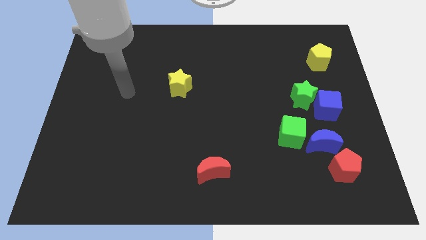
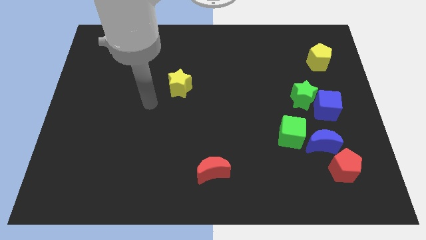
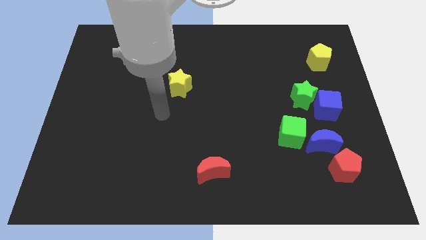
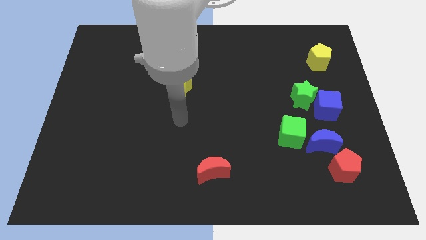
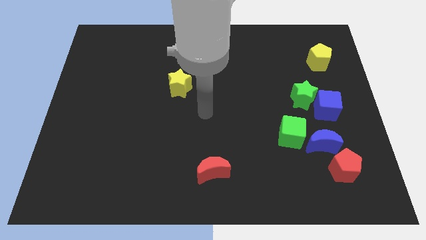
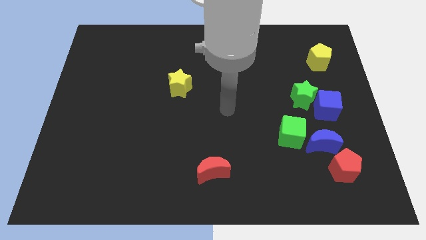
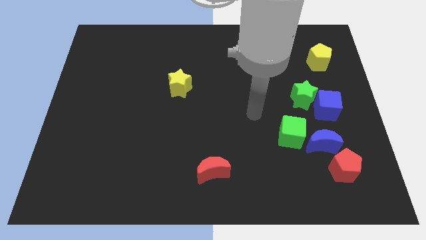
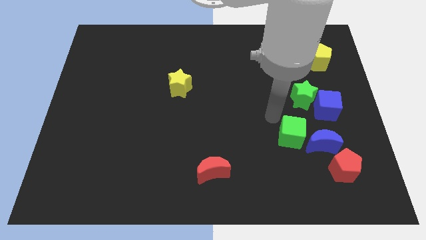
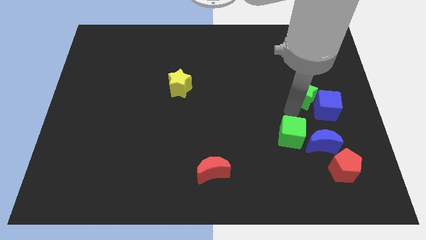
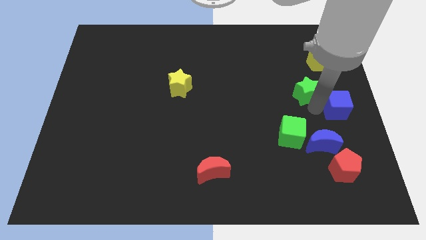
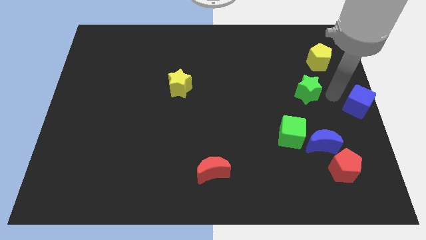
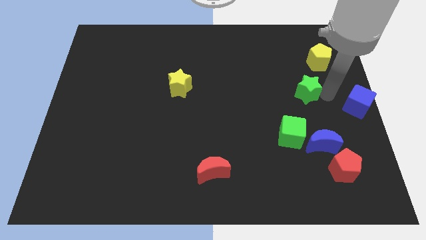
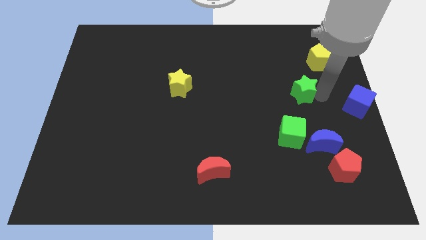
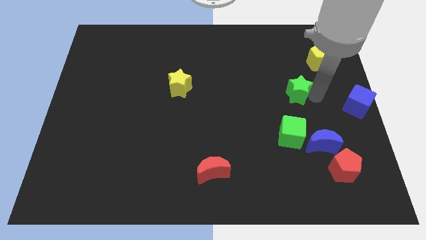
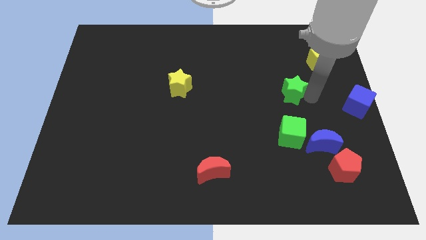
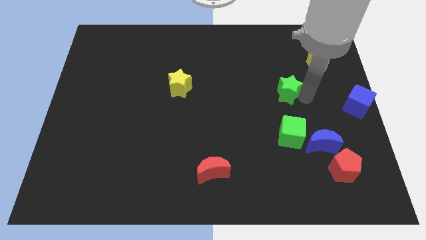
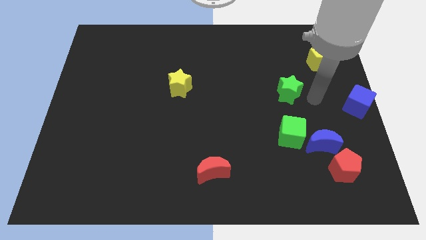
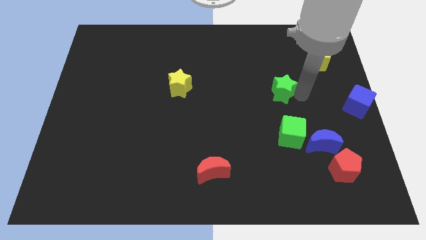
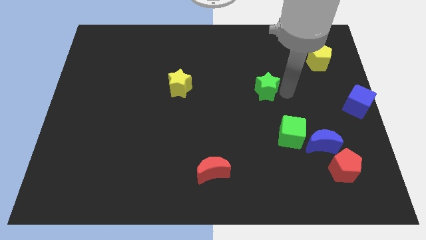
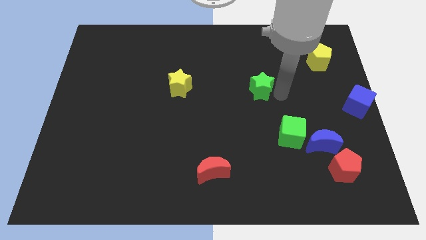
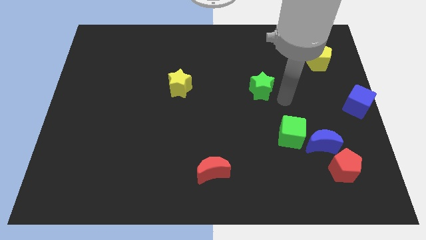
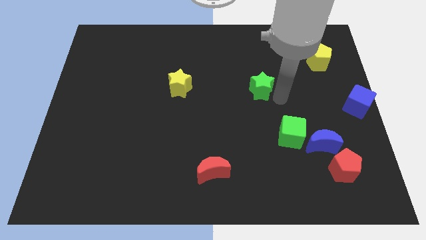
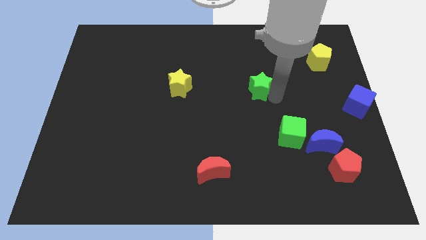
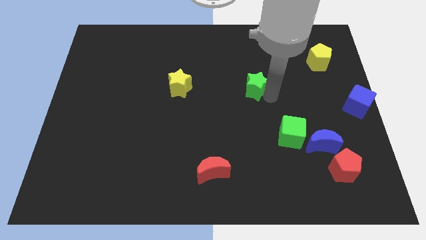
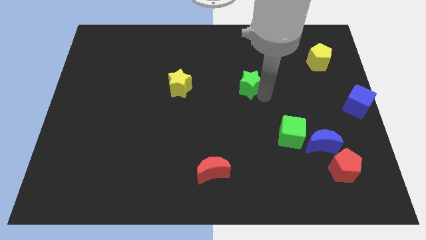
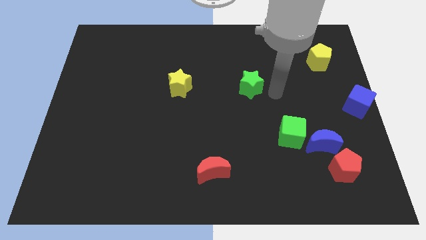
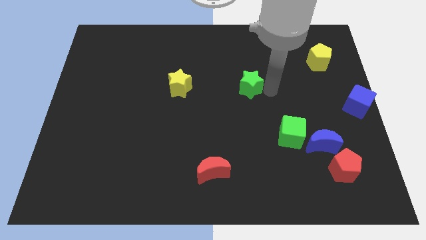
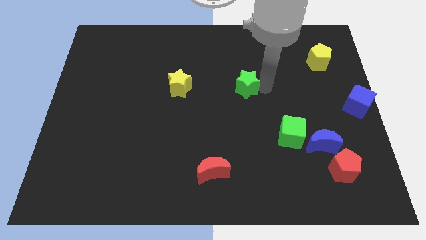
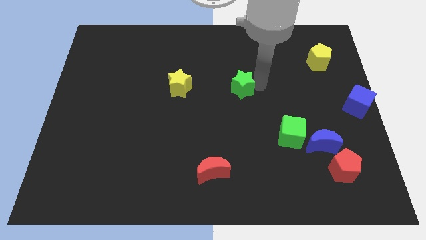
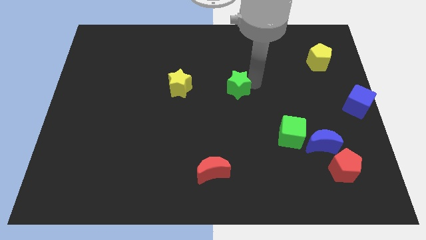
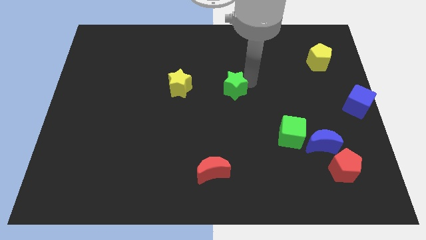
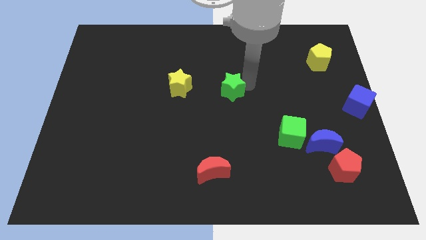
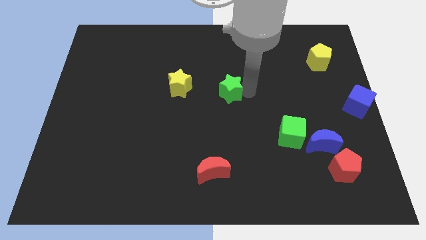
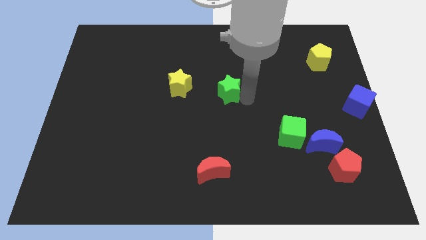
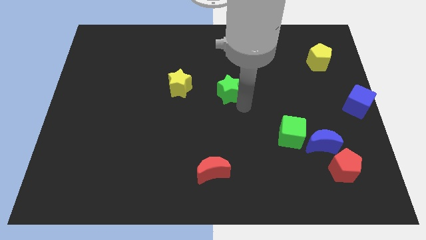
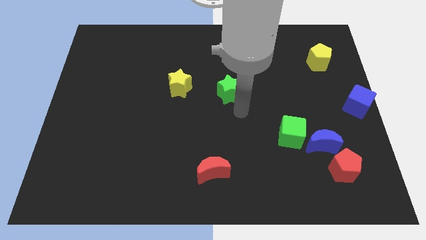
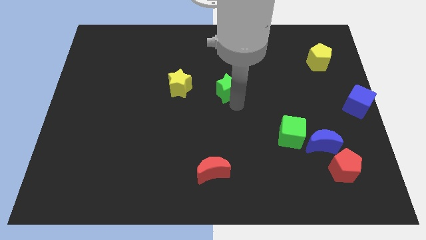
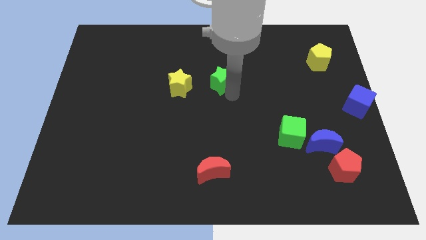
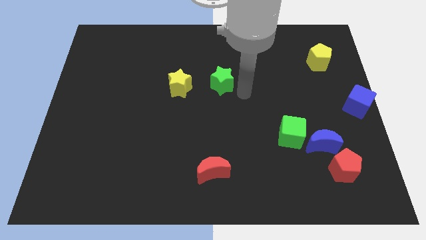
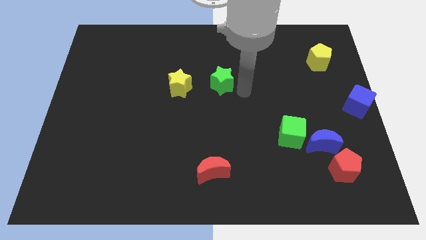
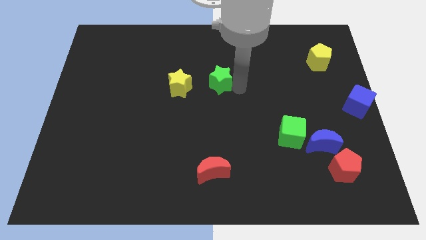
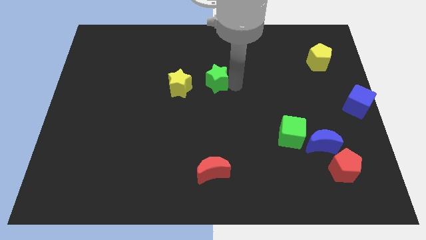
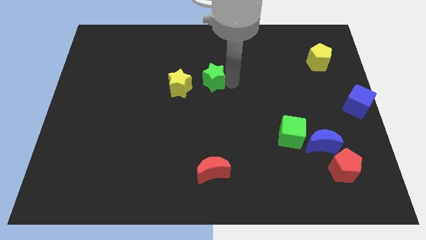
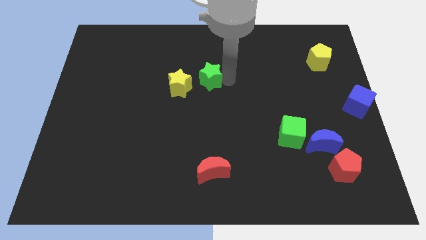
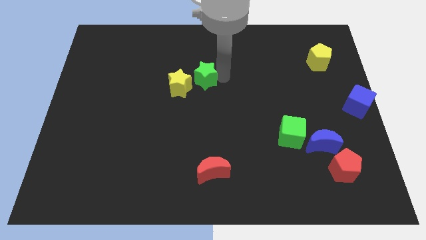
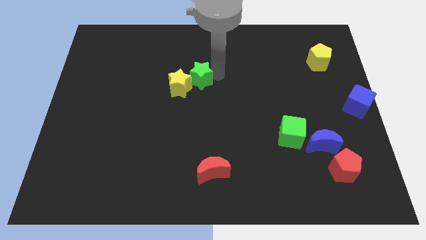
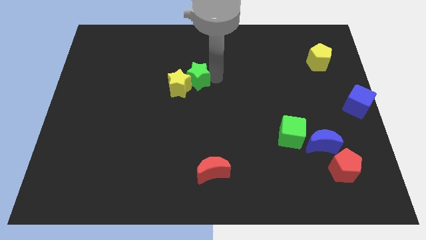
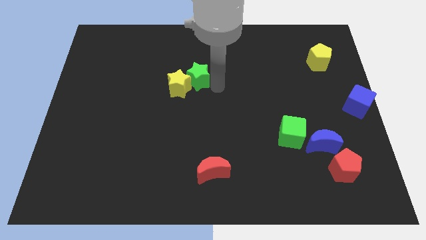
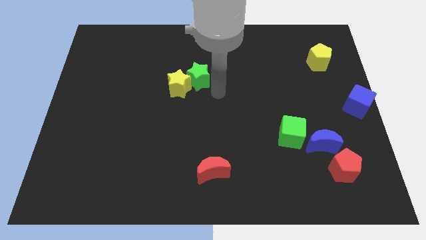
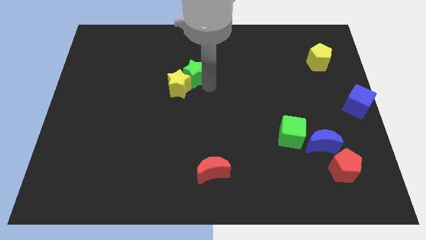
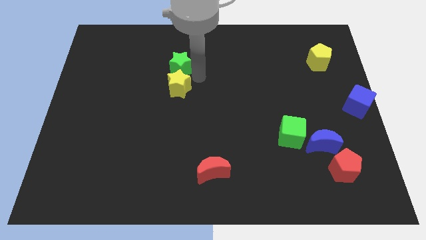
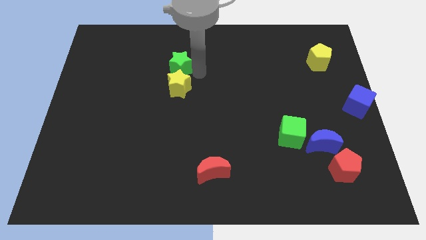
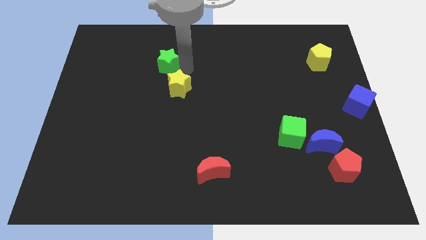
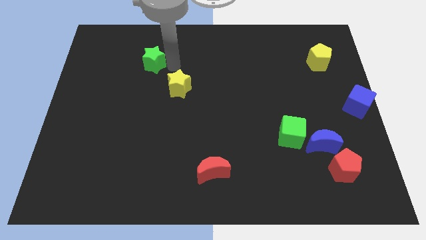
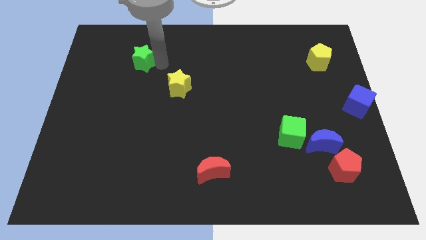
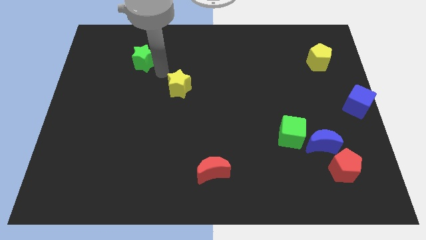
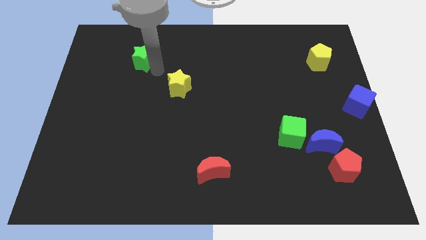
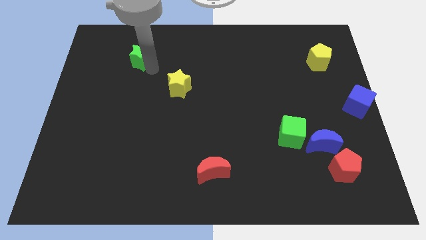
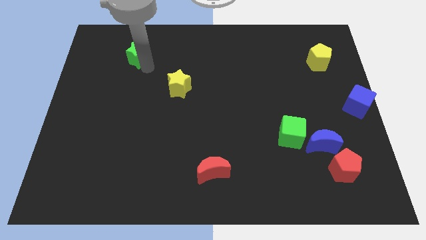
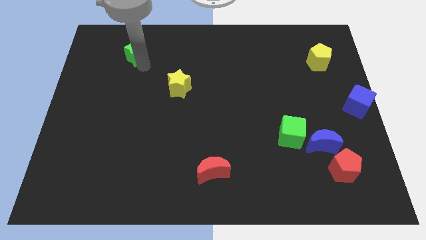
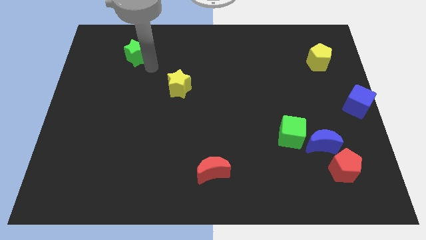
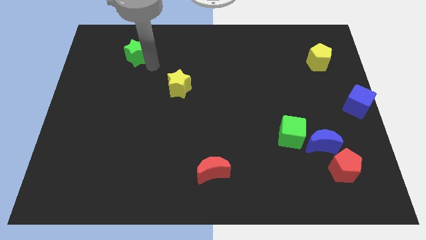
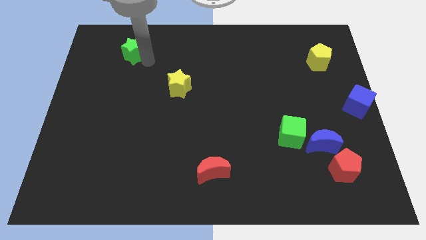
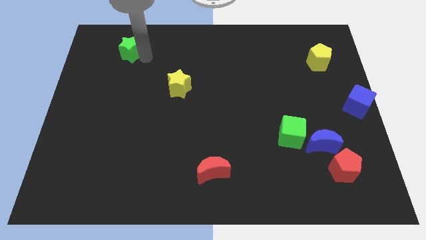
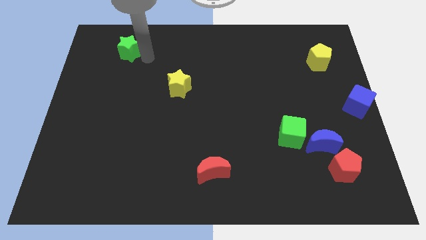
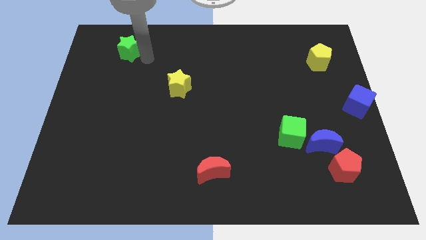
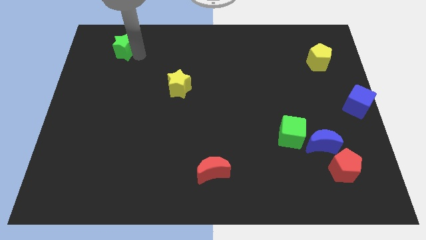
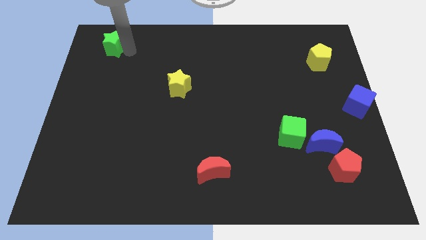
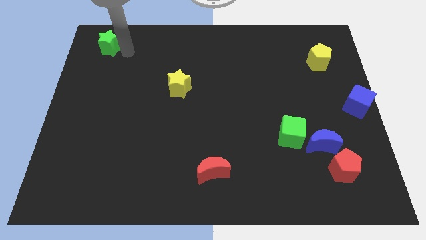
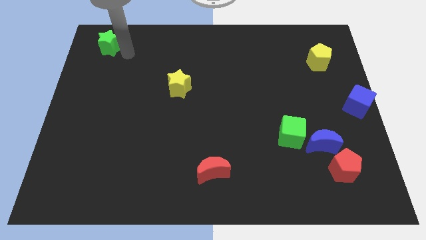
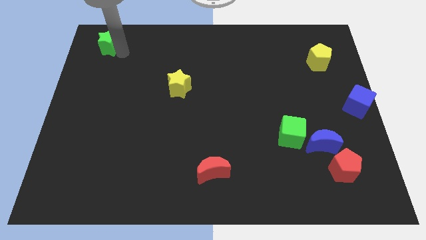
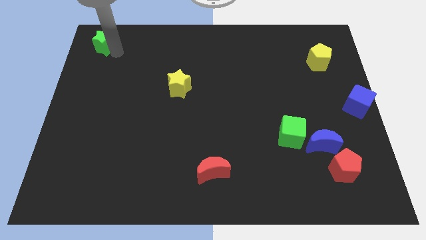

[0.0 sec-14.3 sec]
push the green star to the top left corner
